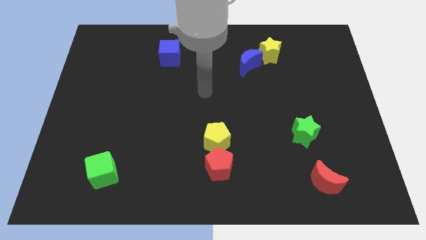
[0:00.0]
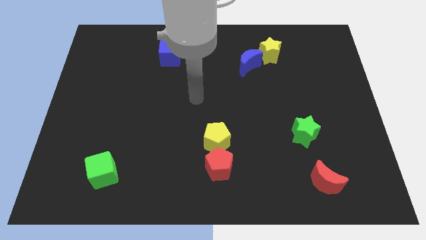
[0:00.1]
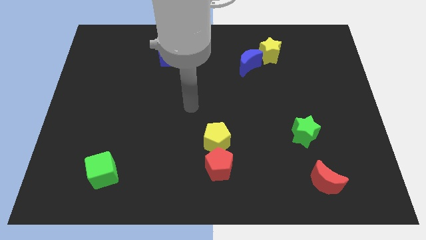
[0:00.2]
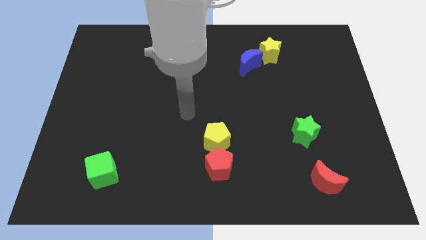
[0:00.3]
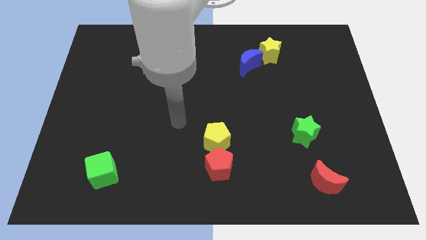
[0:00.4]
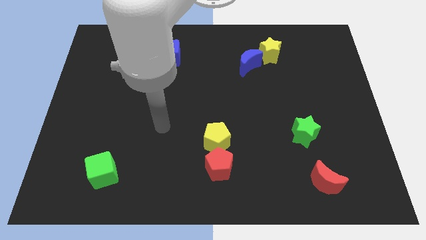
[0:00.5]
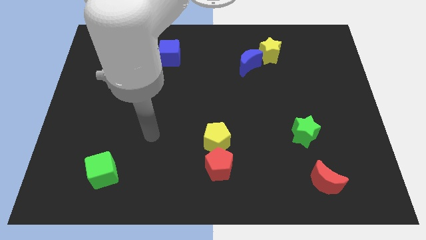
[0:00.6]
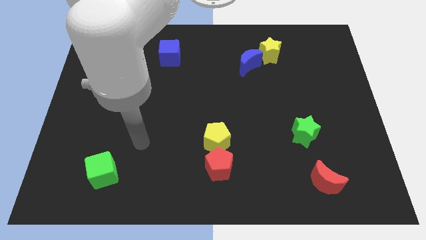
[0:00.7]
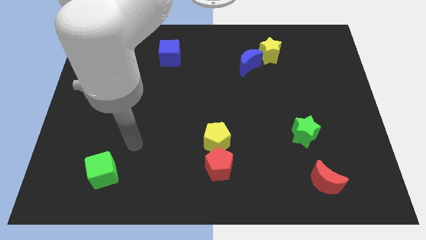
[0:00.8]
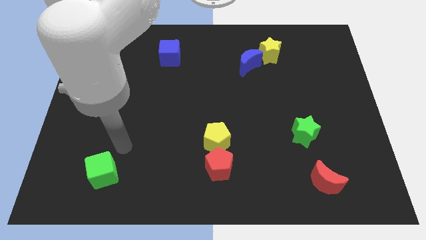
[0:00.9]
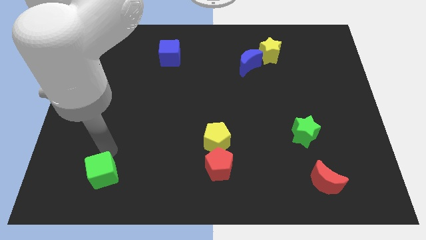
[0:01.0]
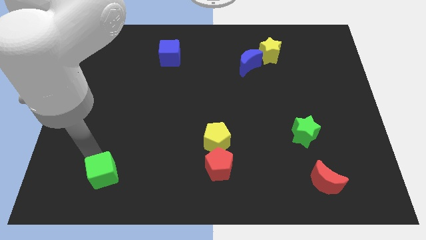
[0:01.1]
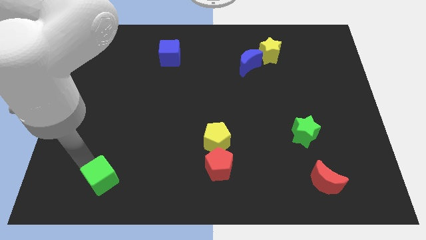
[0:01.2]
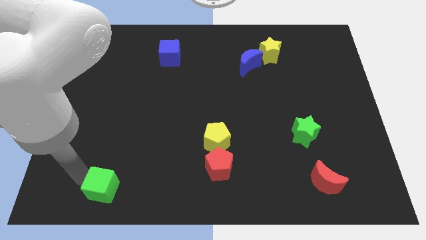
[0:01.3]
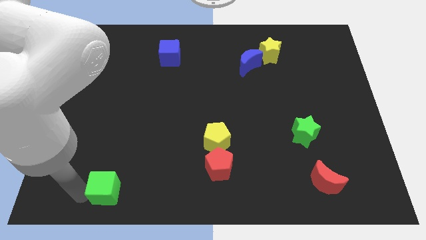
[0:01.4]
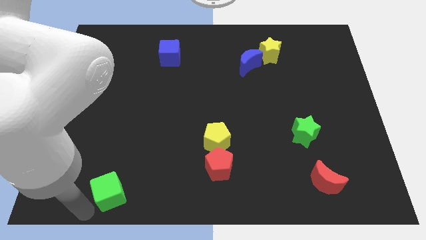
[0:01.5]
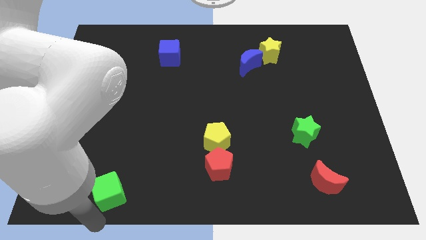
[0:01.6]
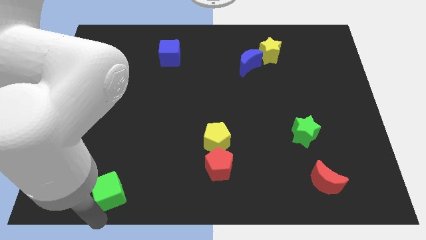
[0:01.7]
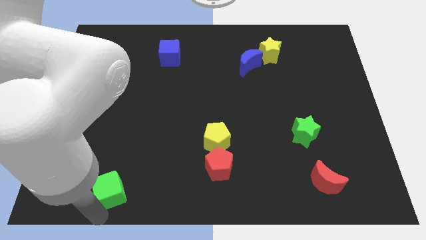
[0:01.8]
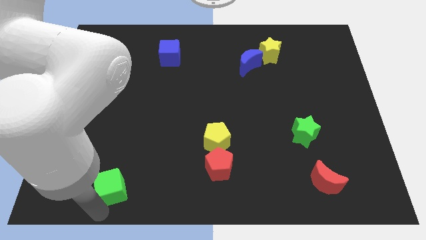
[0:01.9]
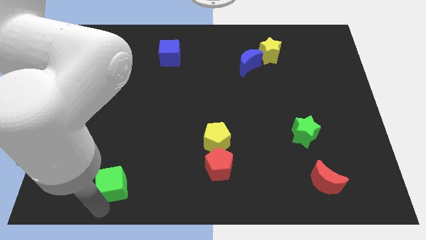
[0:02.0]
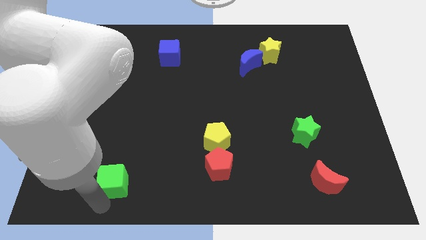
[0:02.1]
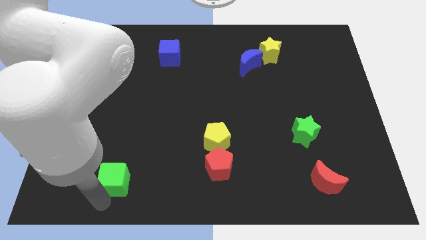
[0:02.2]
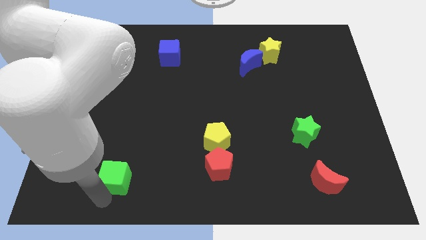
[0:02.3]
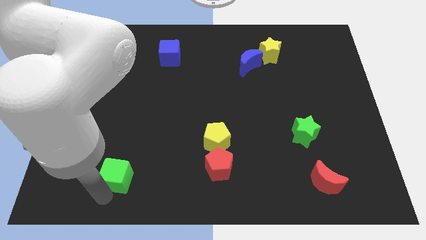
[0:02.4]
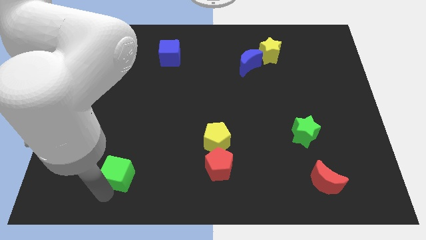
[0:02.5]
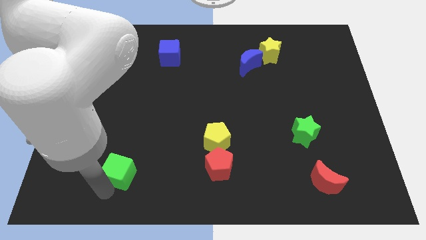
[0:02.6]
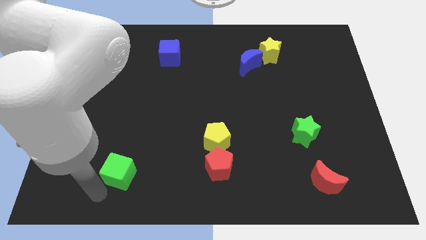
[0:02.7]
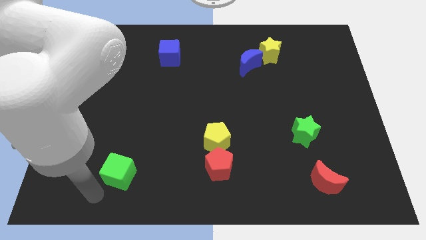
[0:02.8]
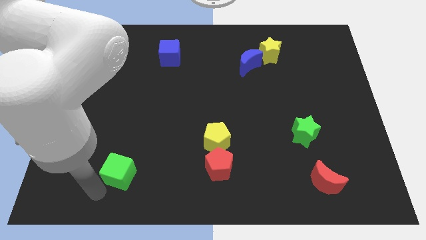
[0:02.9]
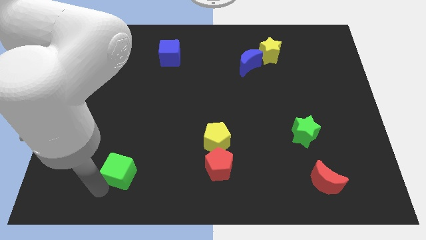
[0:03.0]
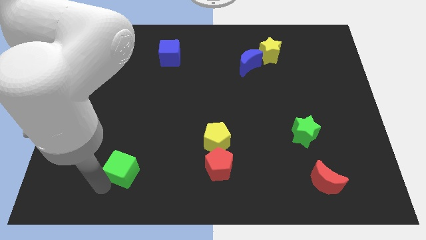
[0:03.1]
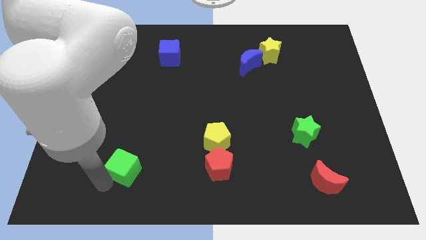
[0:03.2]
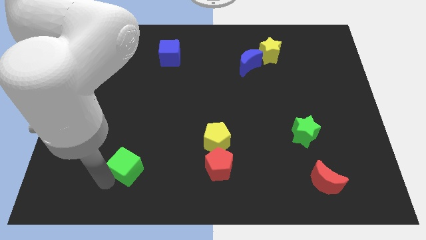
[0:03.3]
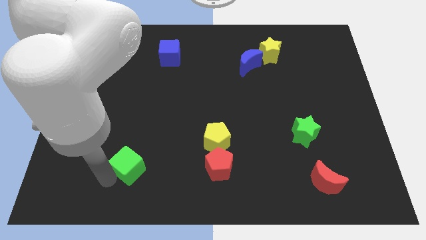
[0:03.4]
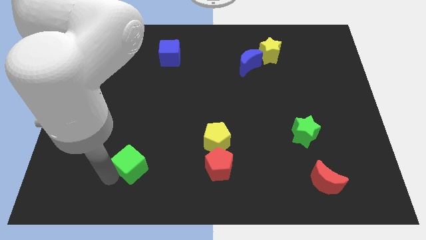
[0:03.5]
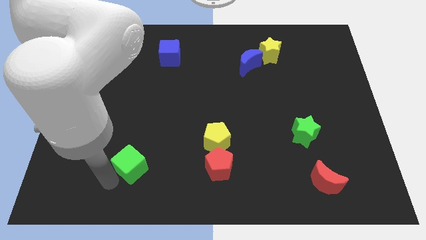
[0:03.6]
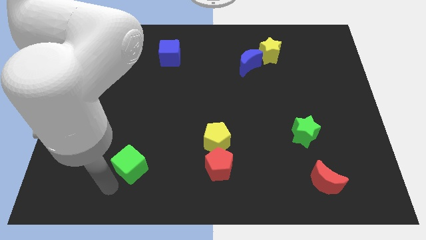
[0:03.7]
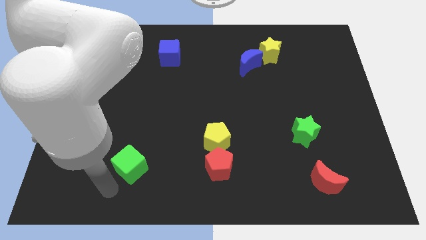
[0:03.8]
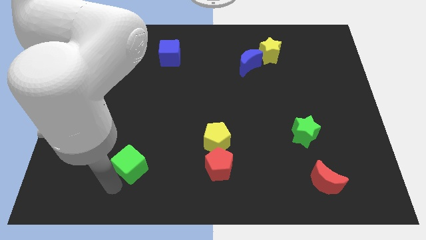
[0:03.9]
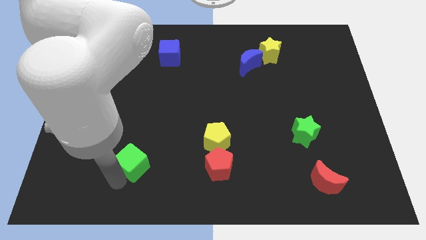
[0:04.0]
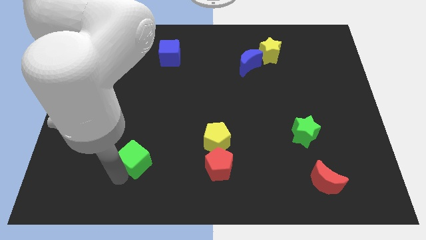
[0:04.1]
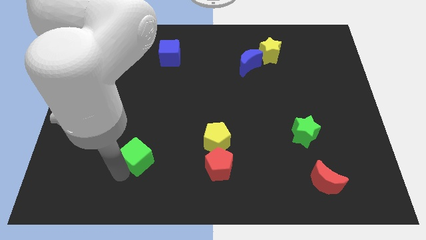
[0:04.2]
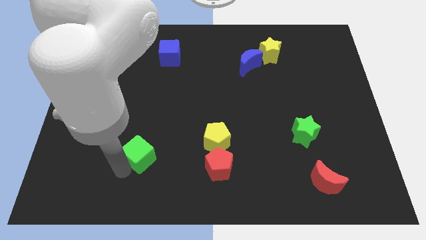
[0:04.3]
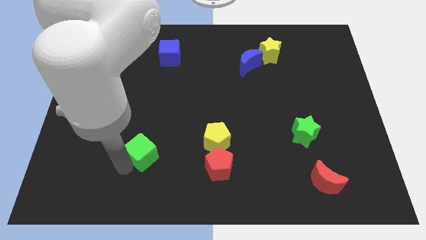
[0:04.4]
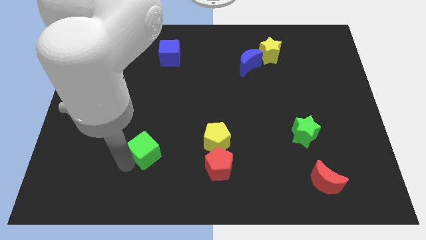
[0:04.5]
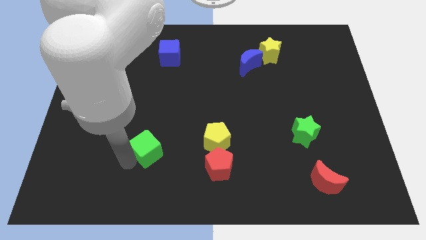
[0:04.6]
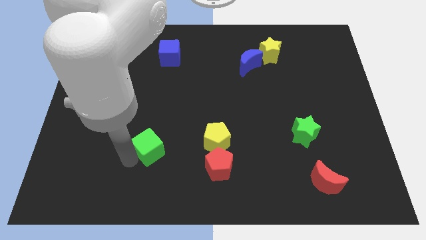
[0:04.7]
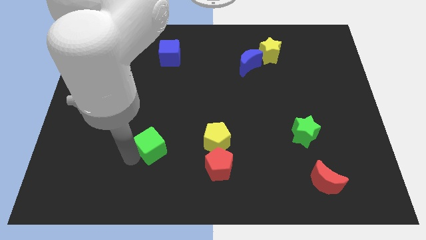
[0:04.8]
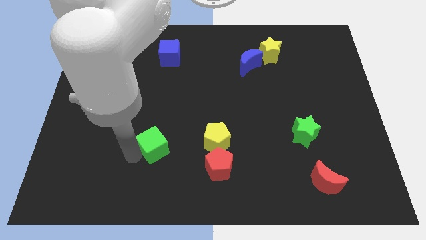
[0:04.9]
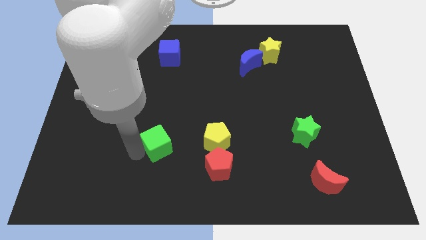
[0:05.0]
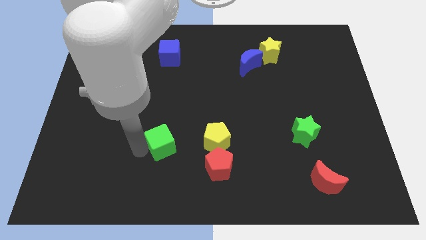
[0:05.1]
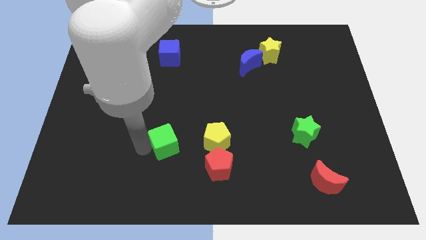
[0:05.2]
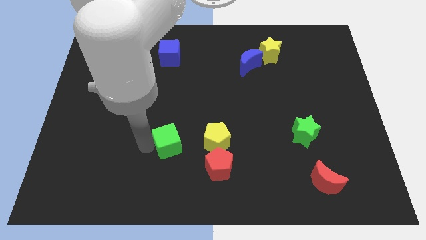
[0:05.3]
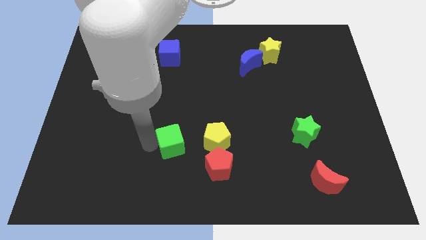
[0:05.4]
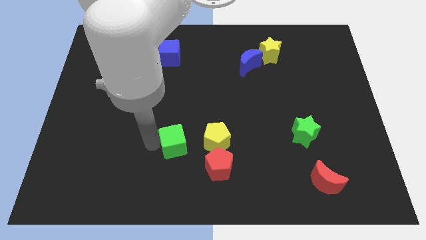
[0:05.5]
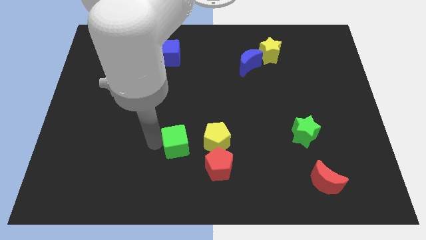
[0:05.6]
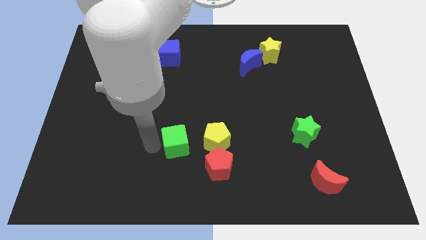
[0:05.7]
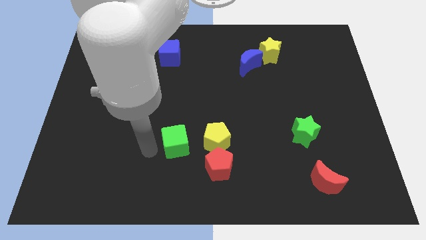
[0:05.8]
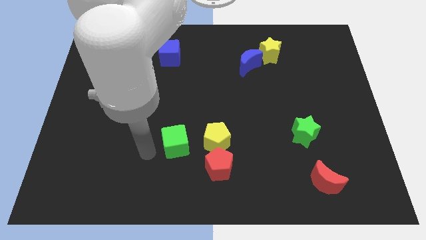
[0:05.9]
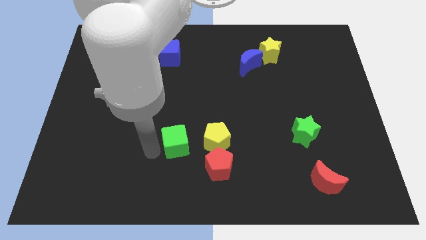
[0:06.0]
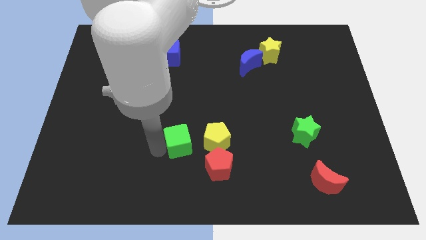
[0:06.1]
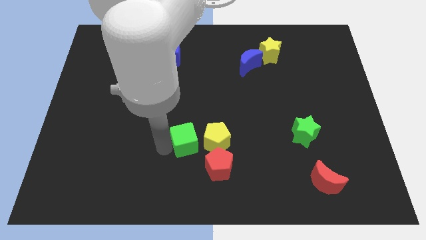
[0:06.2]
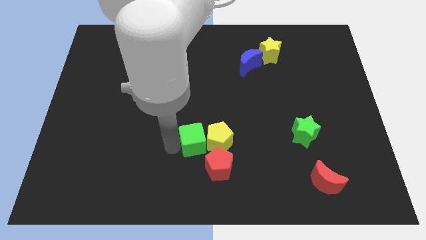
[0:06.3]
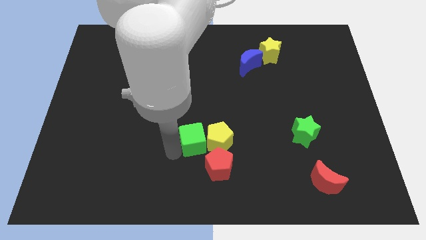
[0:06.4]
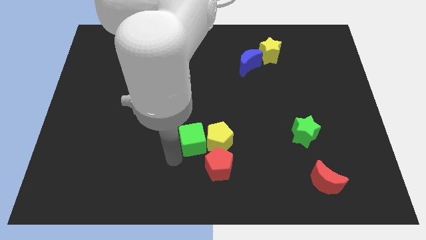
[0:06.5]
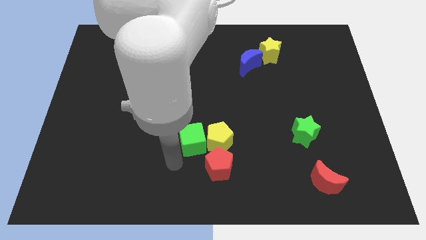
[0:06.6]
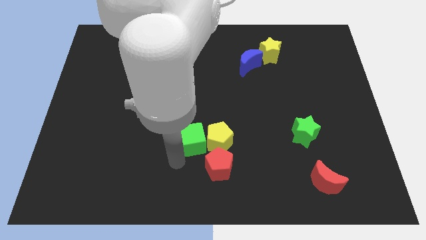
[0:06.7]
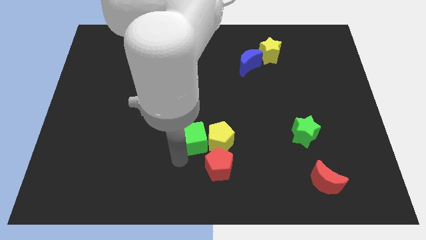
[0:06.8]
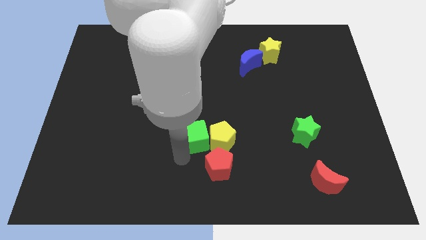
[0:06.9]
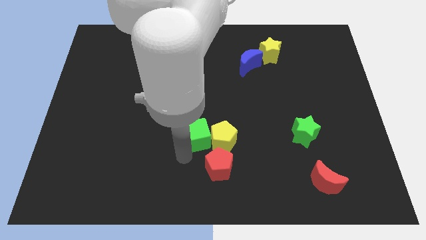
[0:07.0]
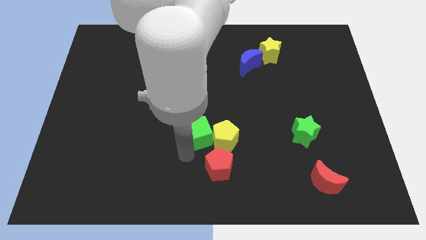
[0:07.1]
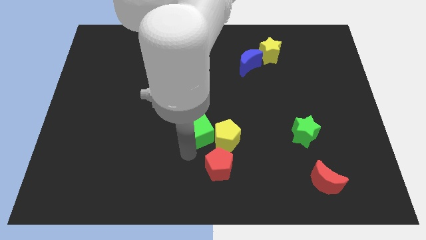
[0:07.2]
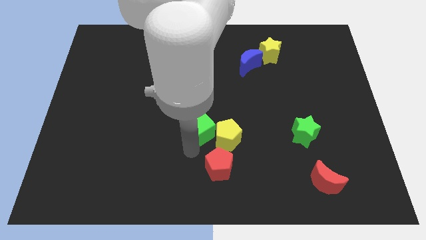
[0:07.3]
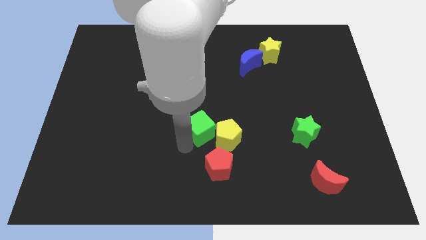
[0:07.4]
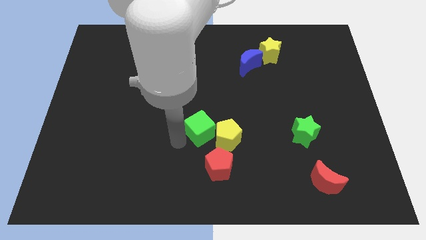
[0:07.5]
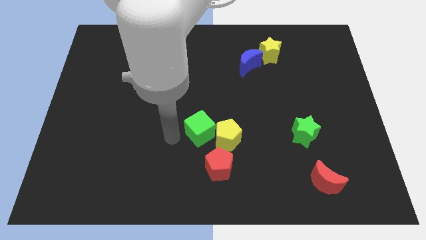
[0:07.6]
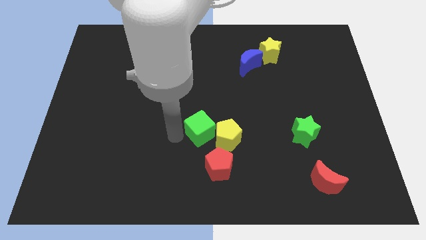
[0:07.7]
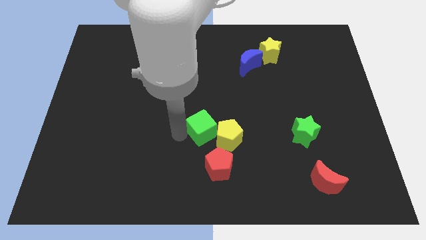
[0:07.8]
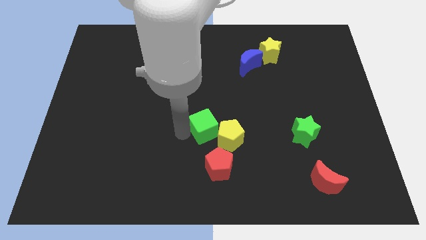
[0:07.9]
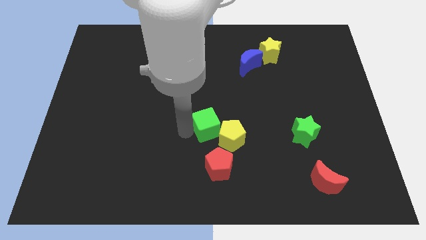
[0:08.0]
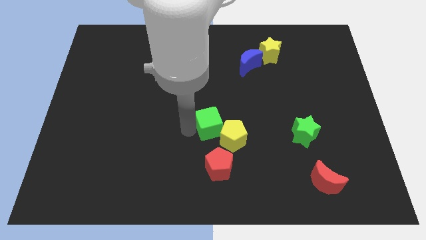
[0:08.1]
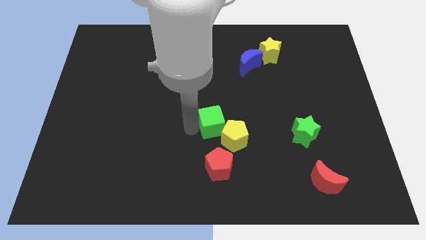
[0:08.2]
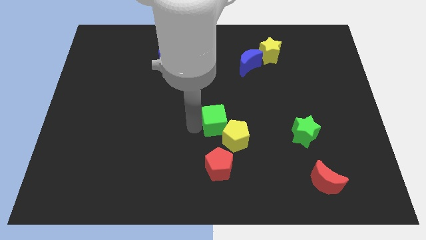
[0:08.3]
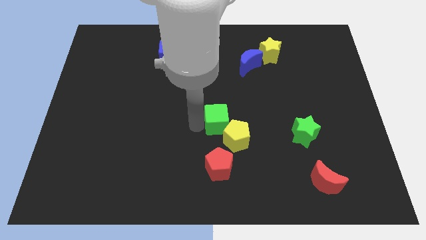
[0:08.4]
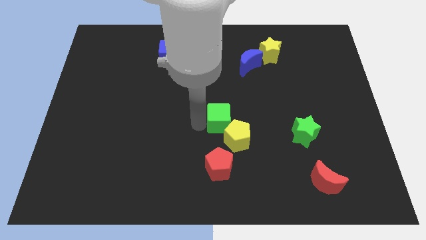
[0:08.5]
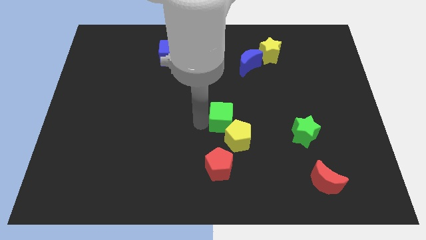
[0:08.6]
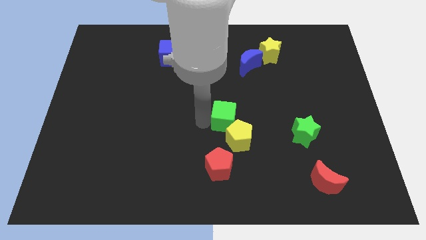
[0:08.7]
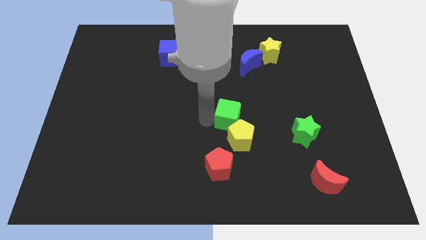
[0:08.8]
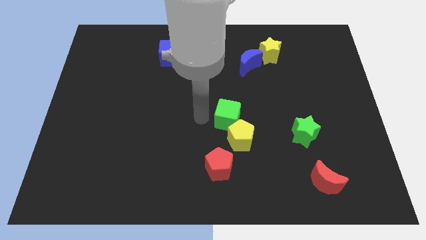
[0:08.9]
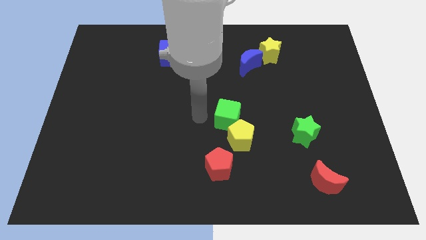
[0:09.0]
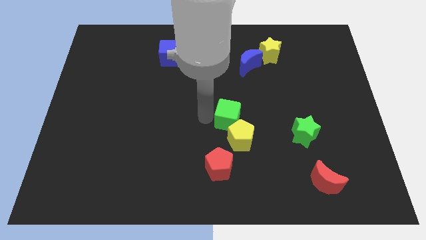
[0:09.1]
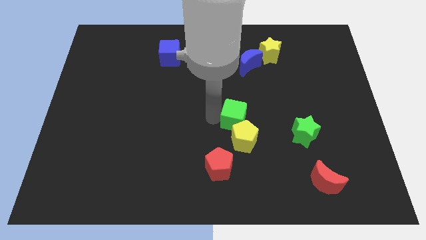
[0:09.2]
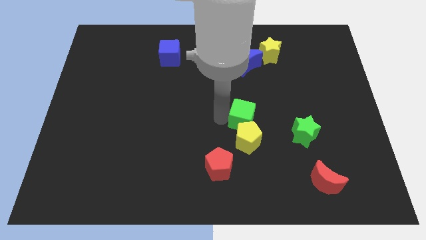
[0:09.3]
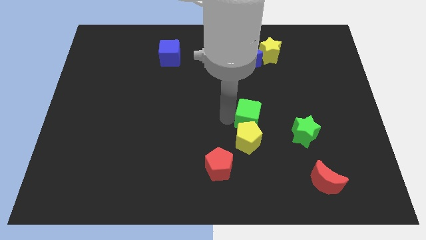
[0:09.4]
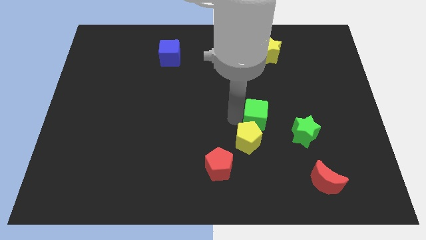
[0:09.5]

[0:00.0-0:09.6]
put the green cube to the top left of the green star
